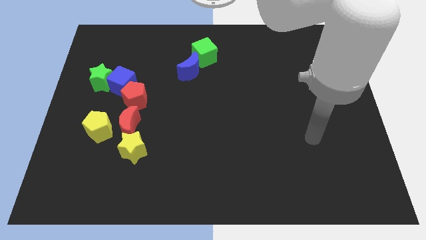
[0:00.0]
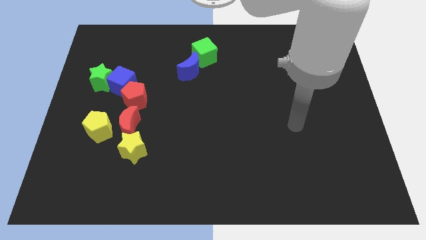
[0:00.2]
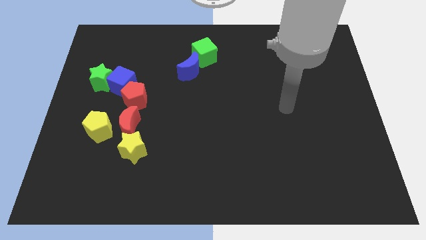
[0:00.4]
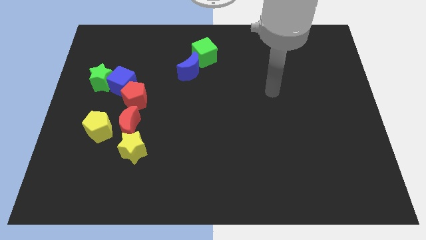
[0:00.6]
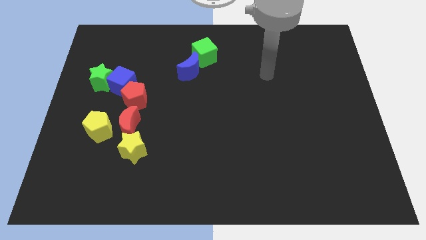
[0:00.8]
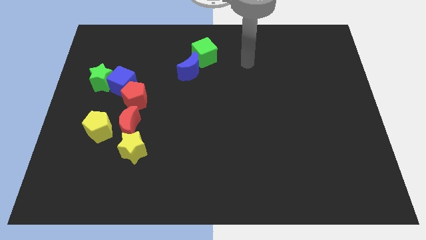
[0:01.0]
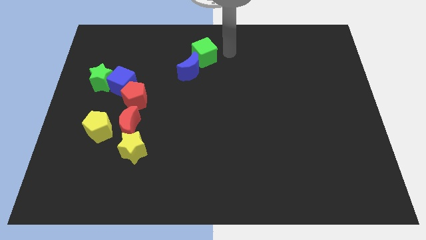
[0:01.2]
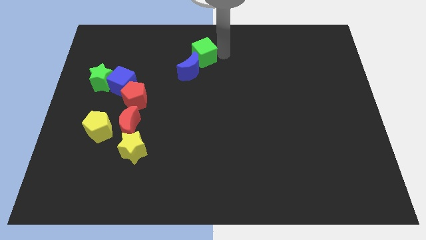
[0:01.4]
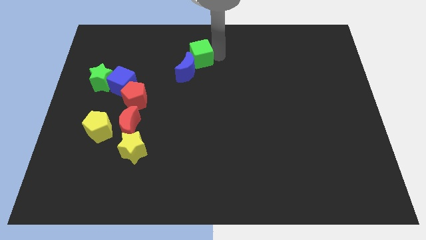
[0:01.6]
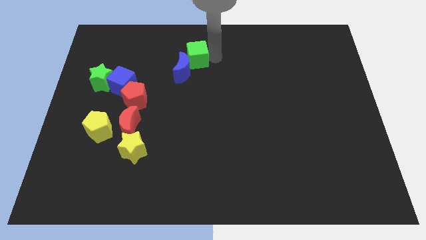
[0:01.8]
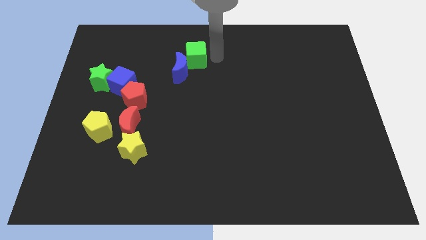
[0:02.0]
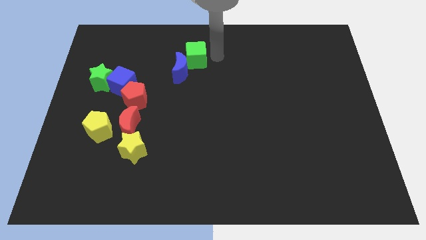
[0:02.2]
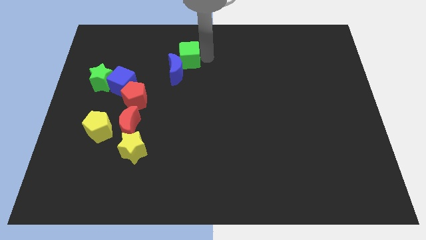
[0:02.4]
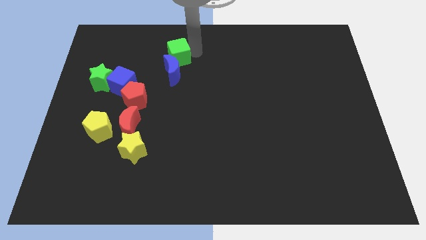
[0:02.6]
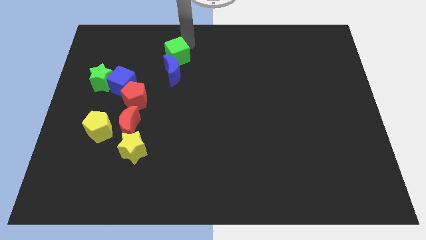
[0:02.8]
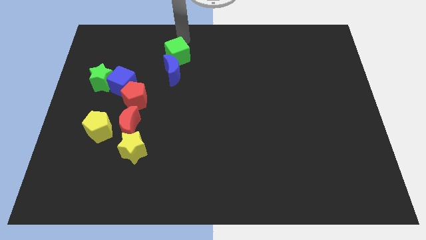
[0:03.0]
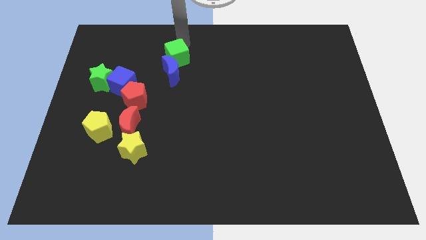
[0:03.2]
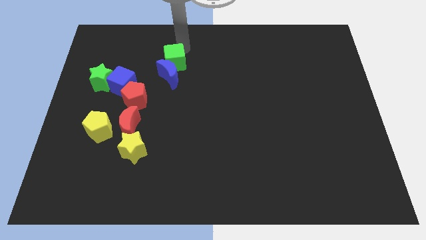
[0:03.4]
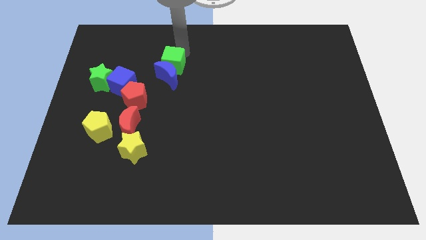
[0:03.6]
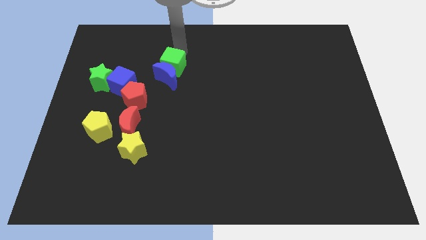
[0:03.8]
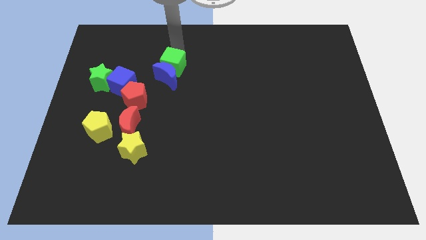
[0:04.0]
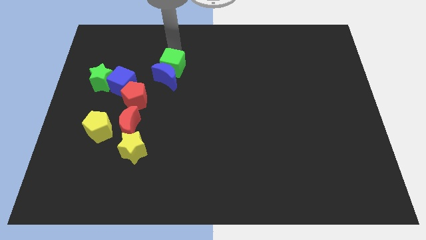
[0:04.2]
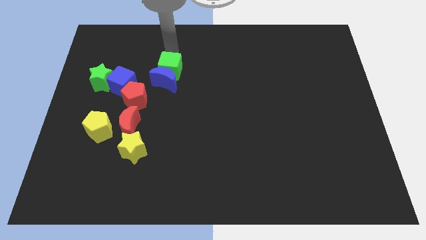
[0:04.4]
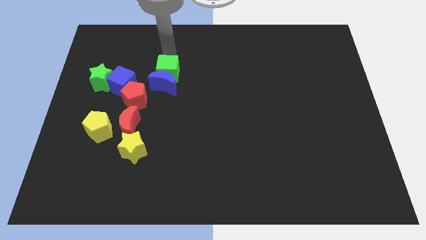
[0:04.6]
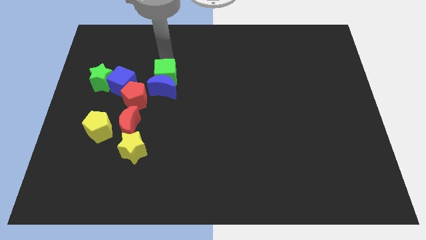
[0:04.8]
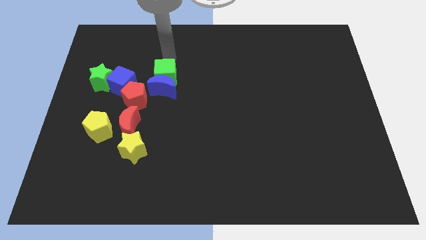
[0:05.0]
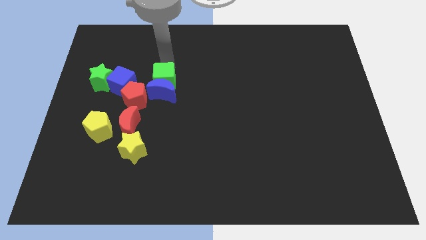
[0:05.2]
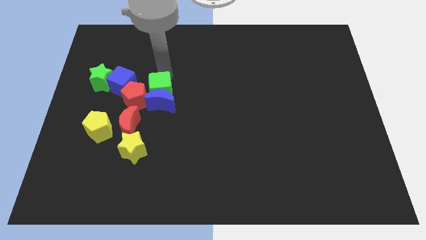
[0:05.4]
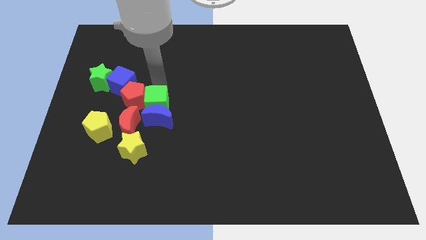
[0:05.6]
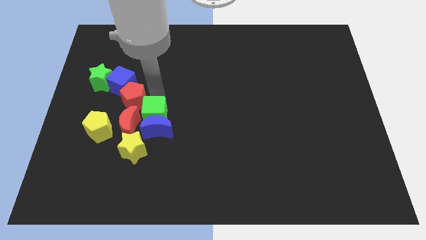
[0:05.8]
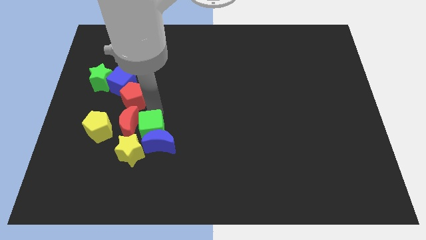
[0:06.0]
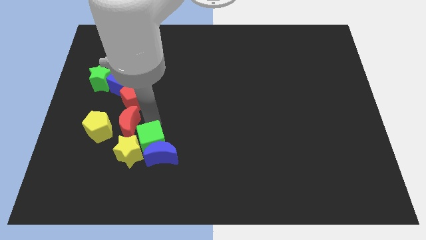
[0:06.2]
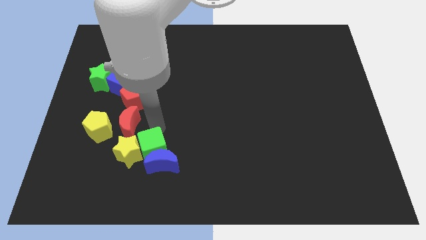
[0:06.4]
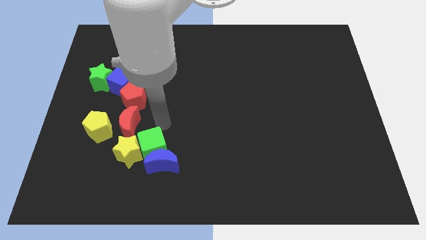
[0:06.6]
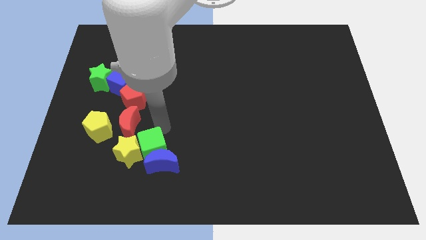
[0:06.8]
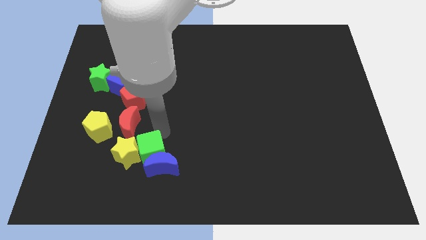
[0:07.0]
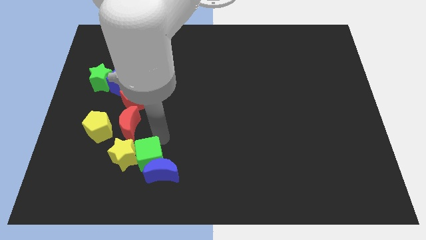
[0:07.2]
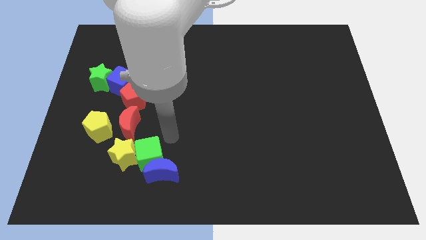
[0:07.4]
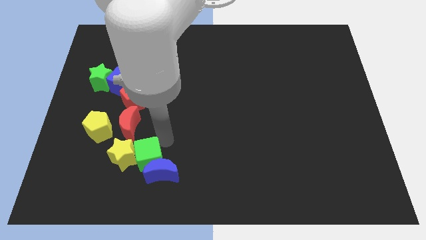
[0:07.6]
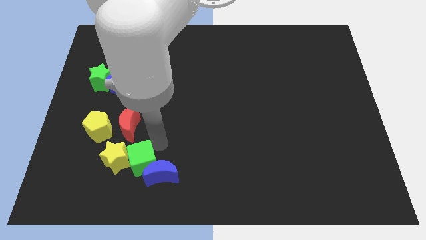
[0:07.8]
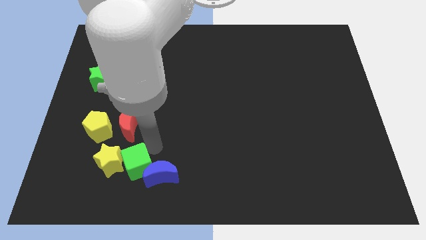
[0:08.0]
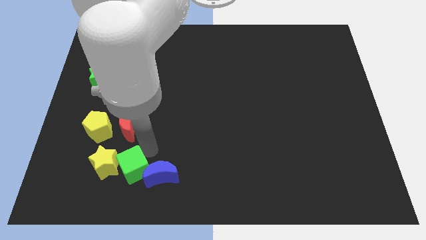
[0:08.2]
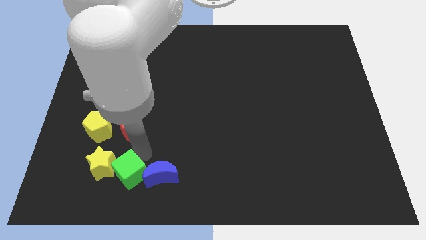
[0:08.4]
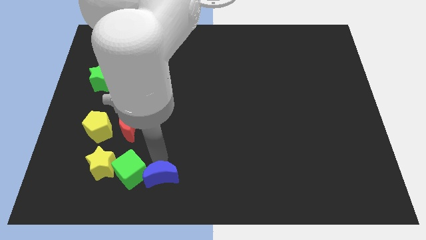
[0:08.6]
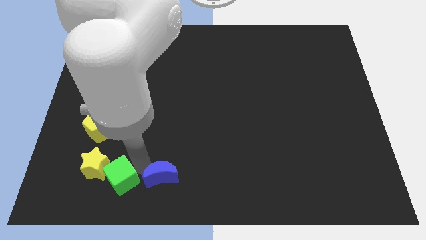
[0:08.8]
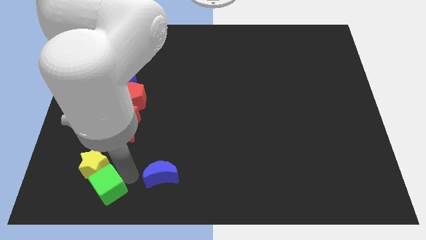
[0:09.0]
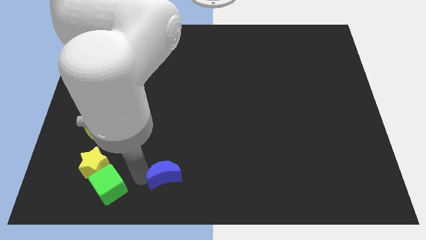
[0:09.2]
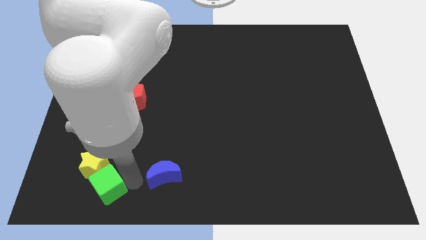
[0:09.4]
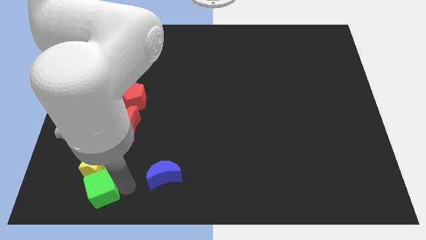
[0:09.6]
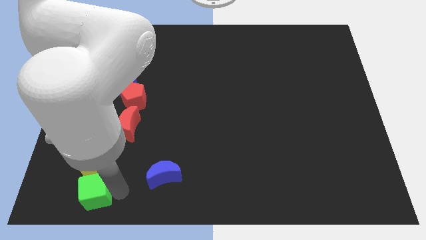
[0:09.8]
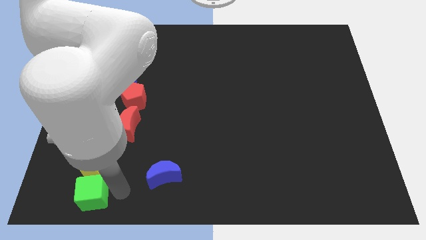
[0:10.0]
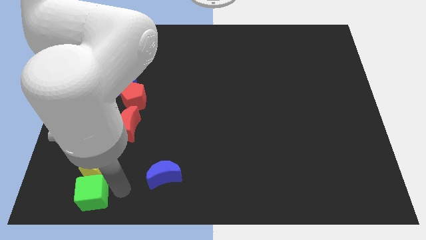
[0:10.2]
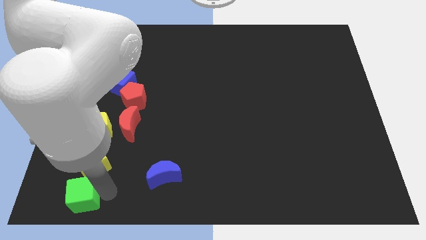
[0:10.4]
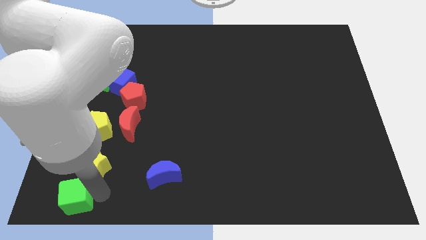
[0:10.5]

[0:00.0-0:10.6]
move the green cube to the bottom left corner
